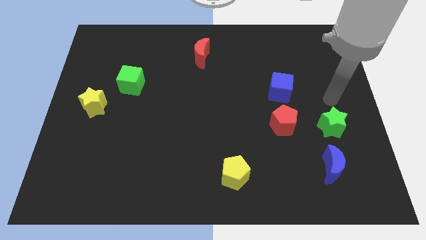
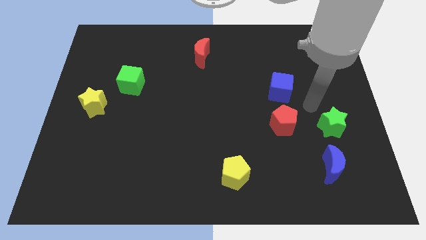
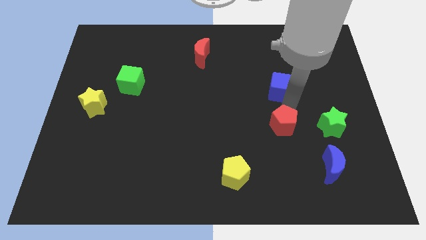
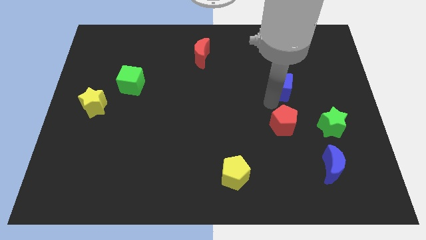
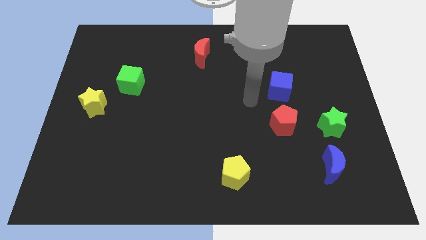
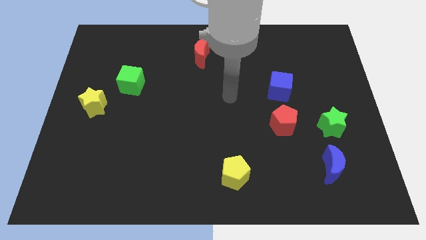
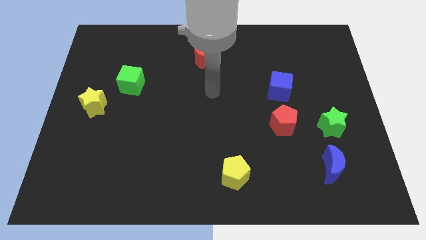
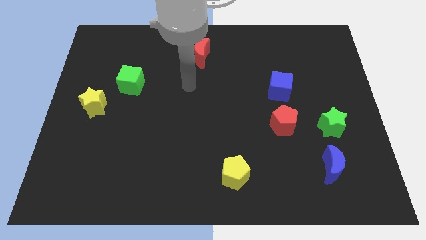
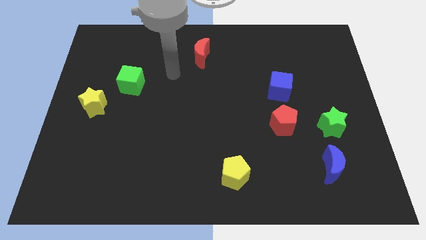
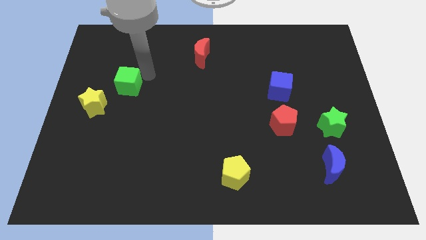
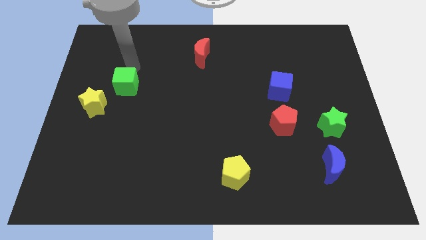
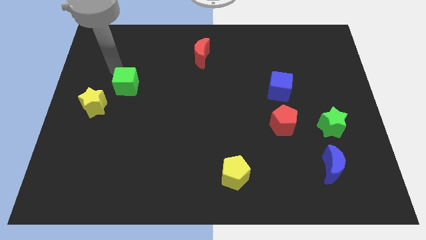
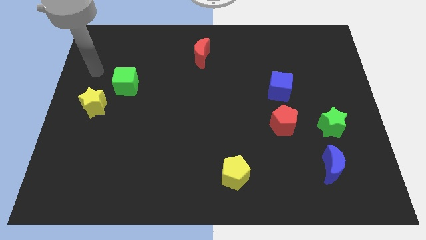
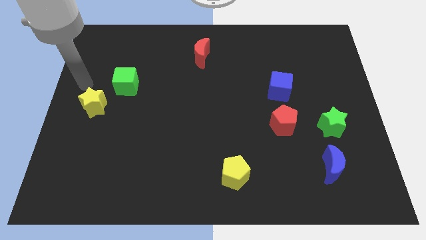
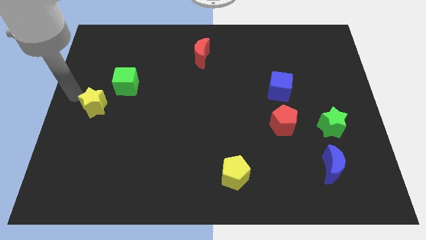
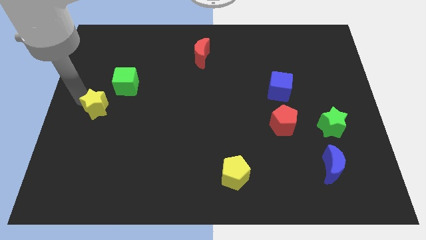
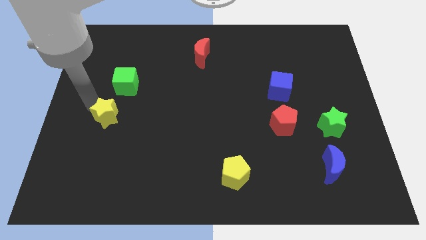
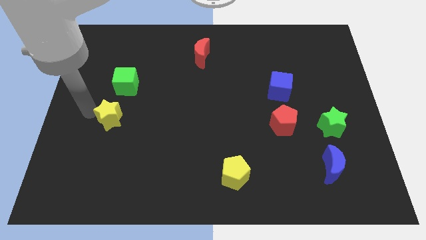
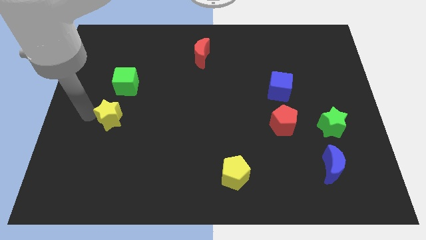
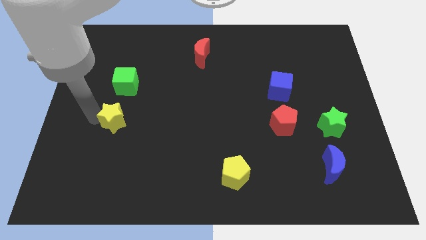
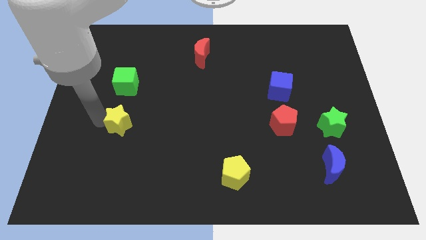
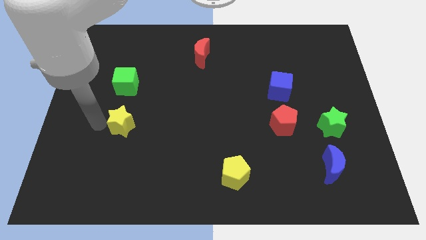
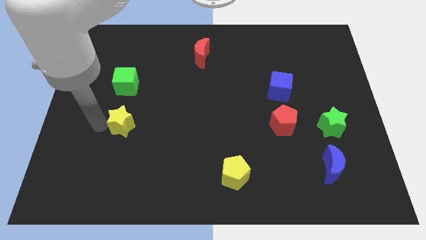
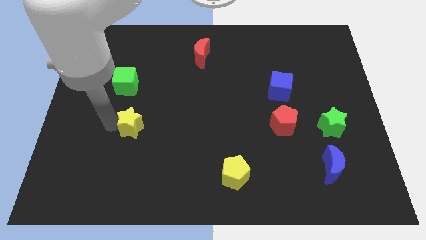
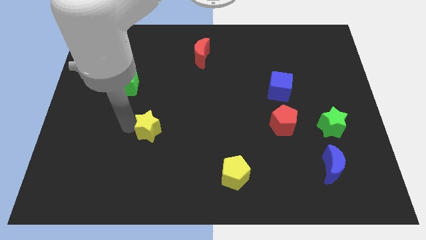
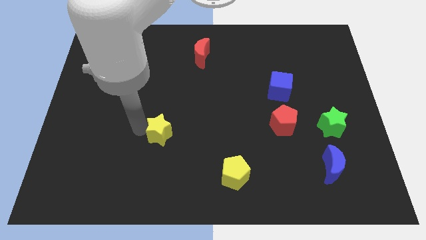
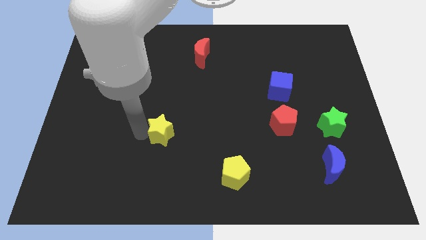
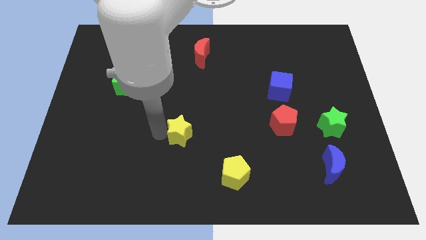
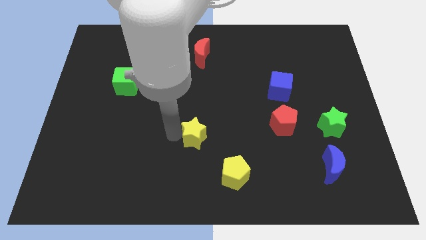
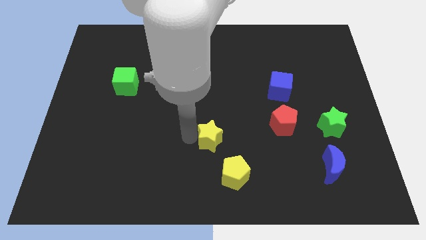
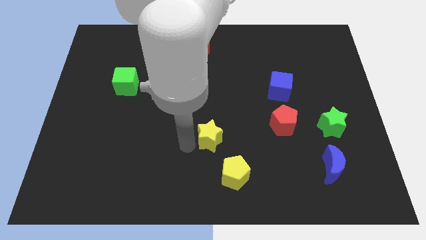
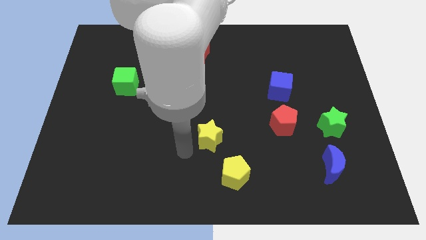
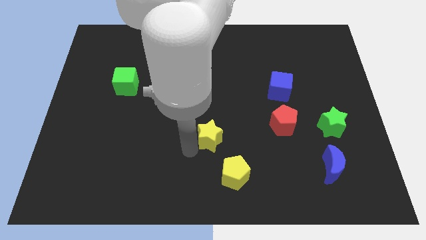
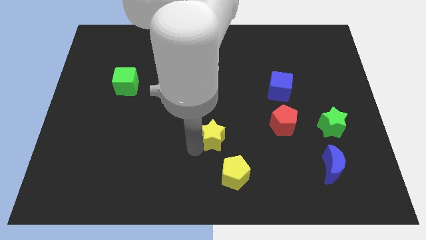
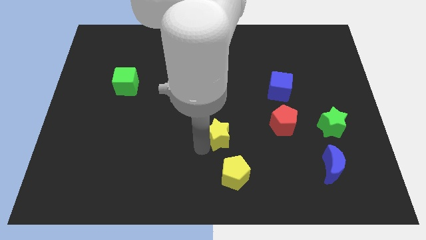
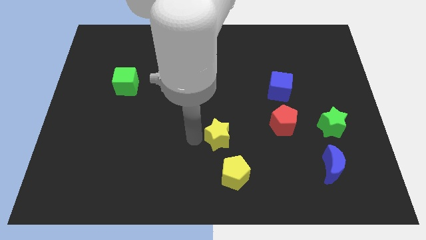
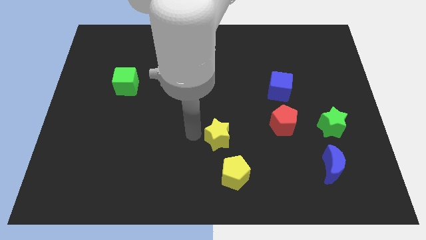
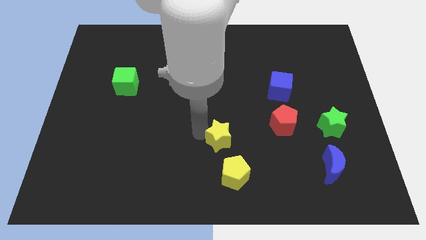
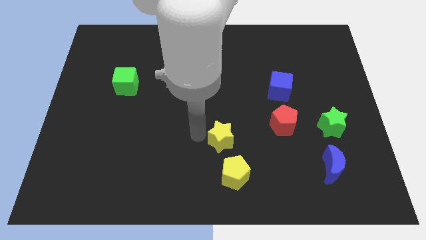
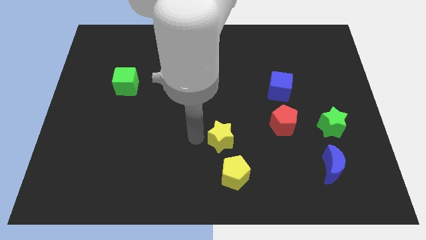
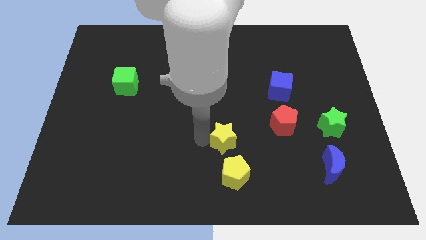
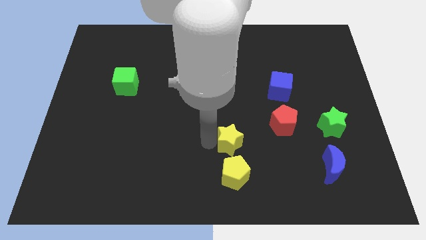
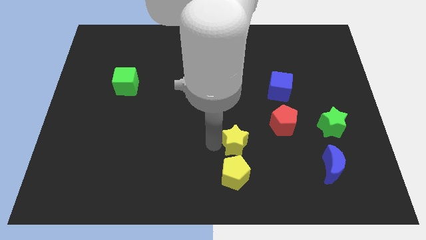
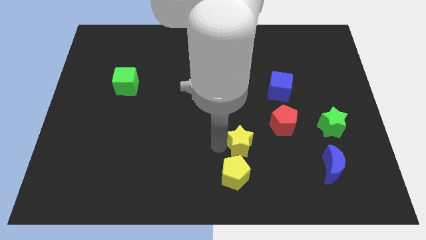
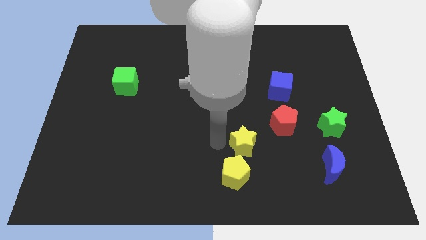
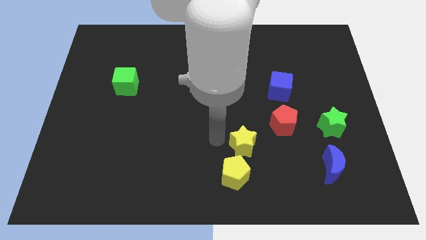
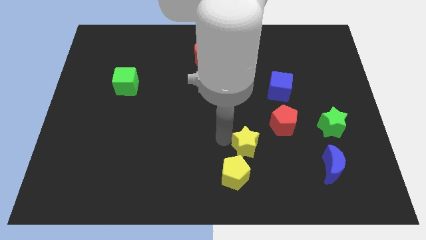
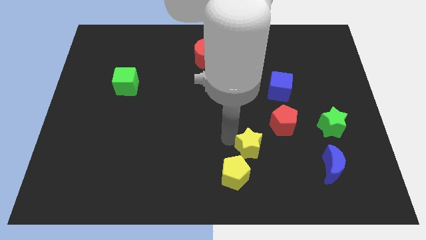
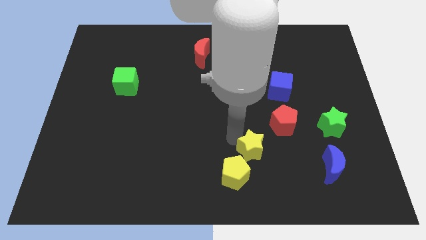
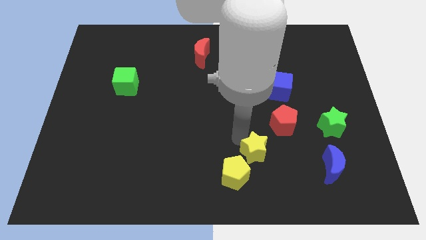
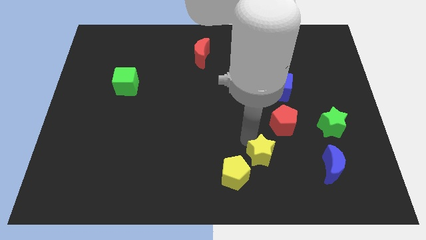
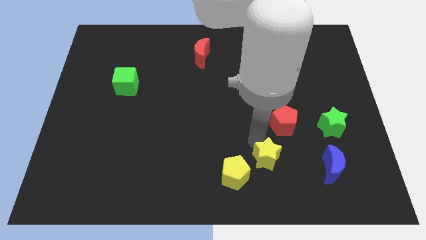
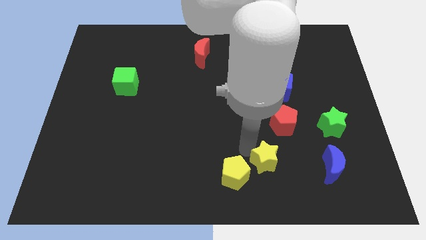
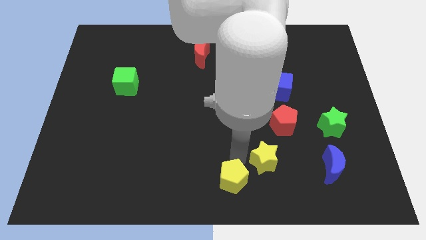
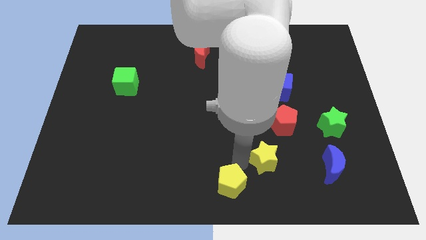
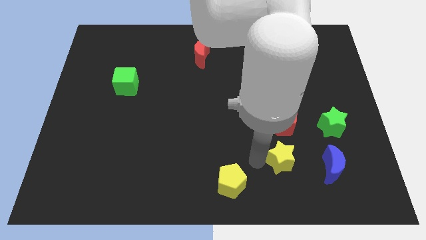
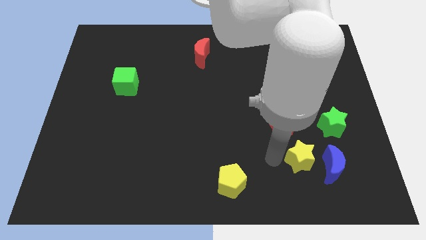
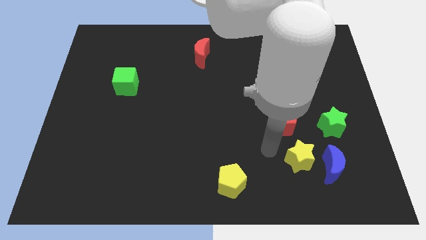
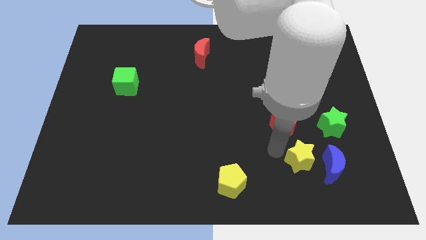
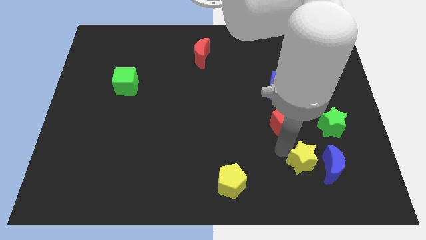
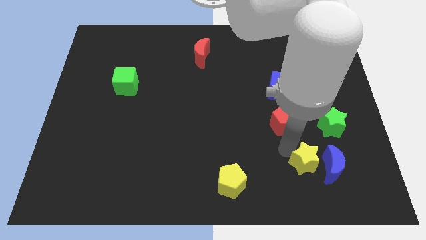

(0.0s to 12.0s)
push the yellow star next to the blue moon

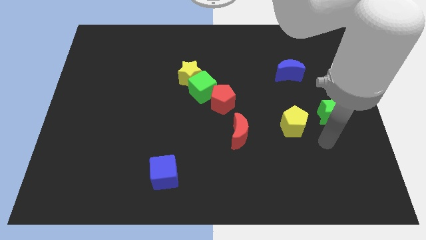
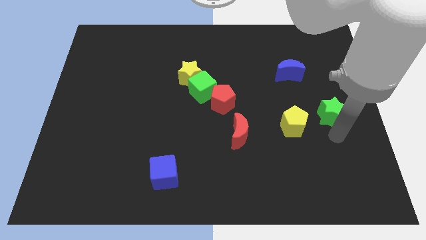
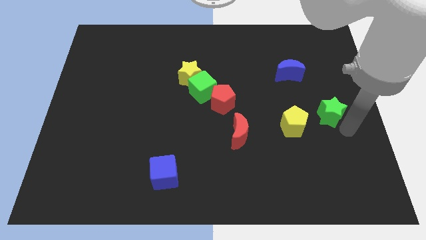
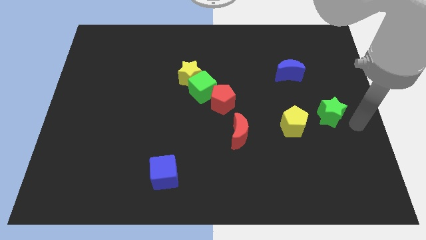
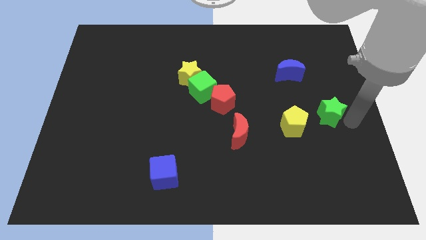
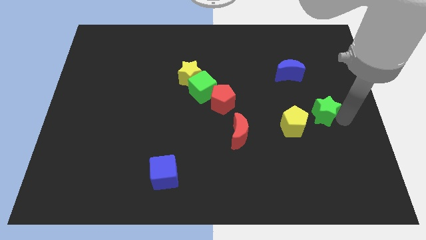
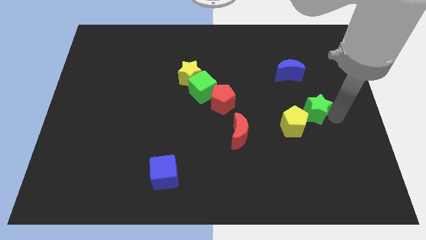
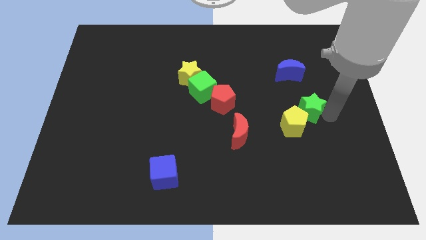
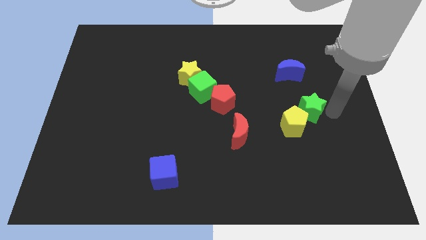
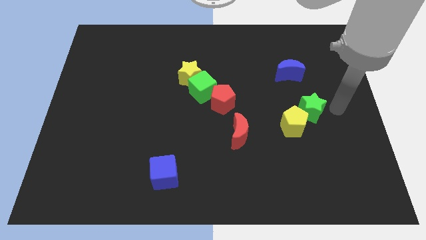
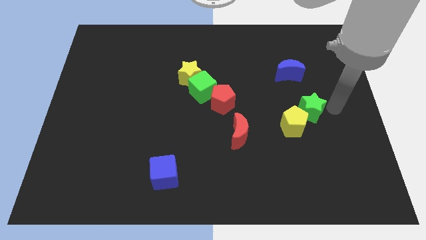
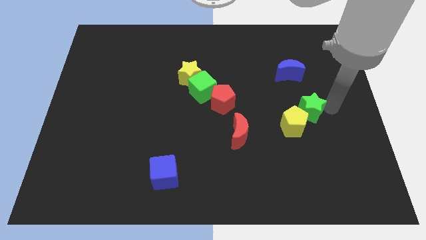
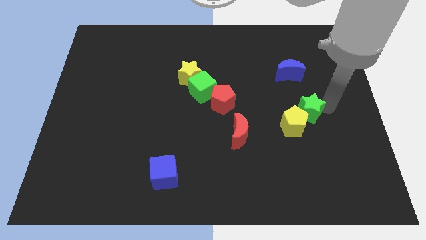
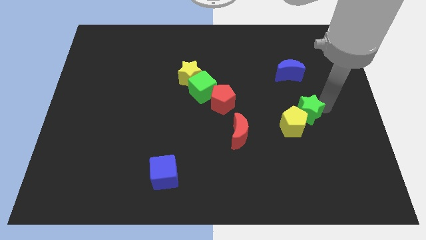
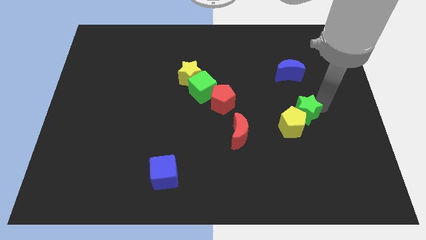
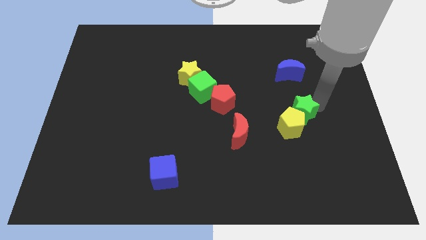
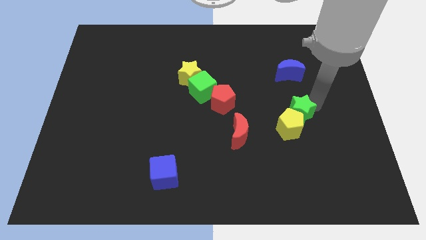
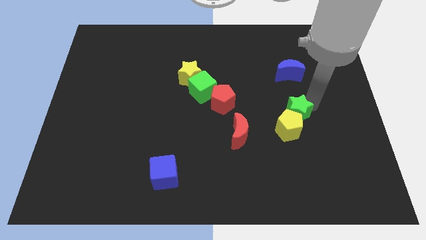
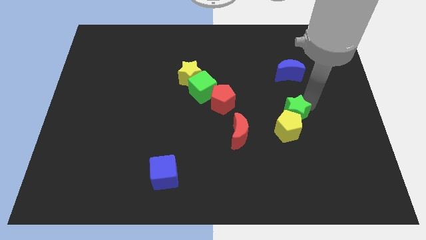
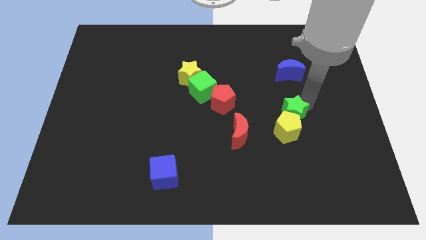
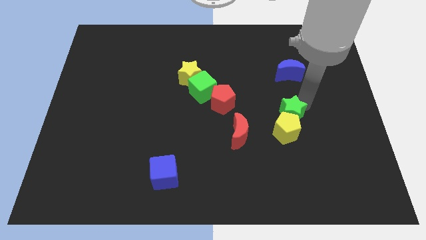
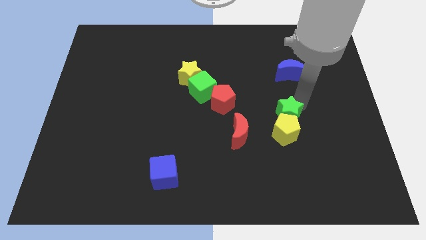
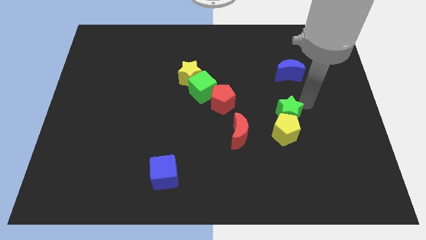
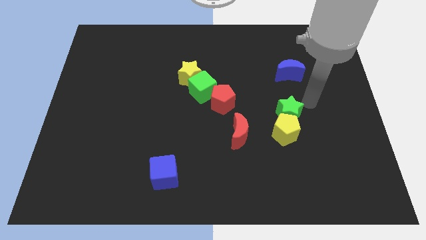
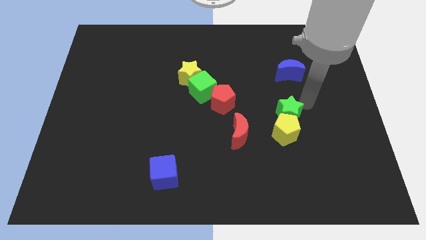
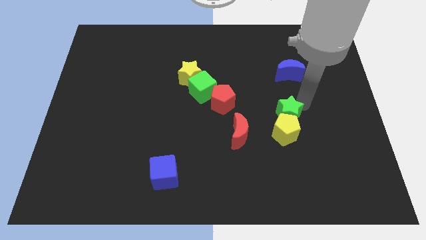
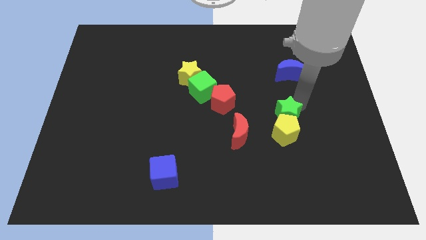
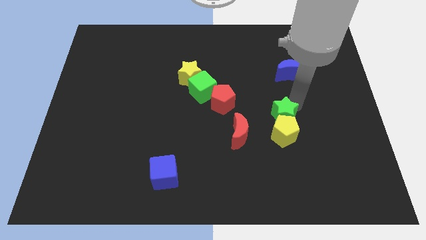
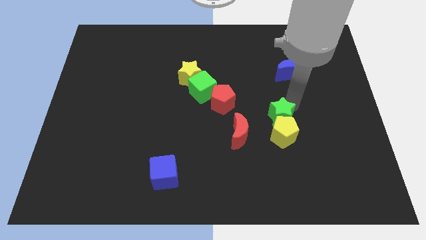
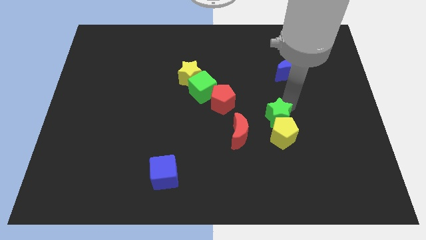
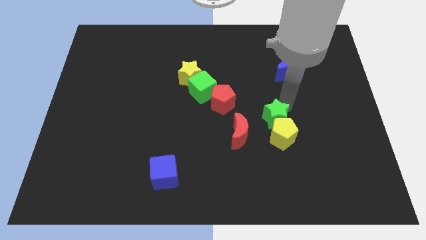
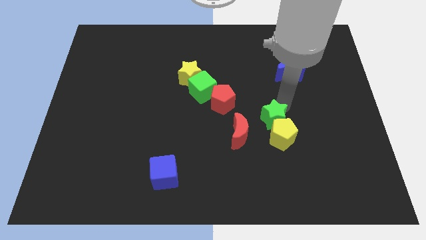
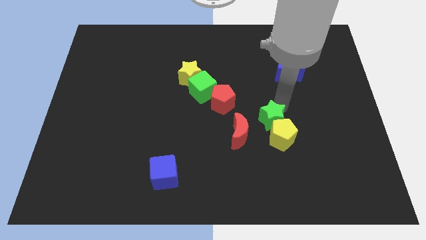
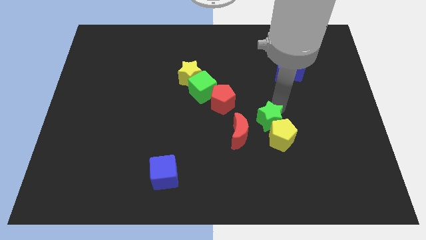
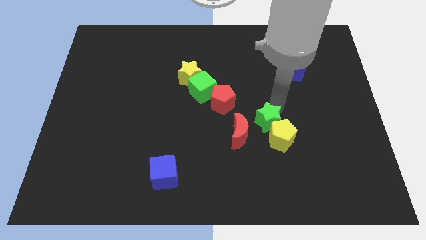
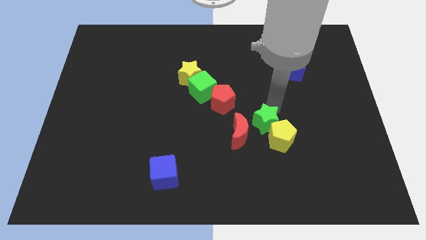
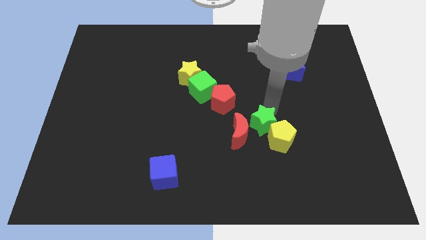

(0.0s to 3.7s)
move the green star to the red moon
